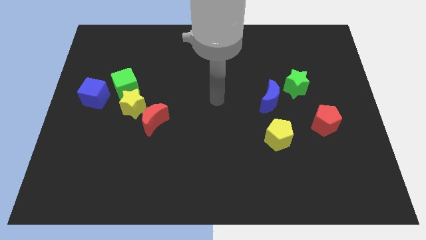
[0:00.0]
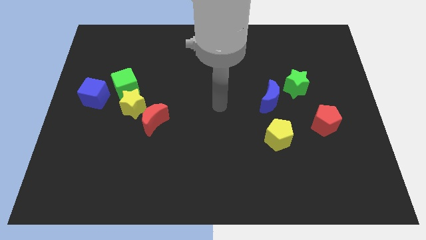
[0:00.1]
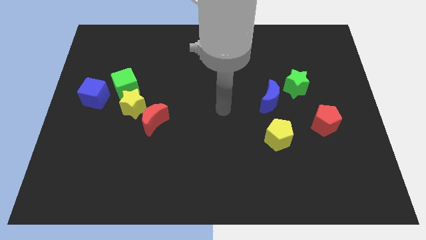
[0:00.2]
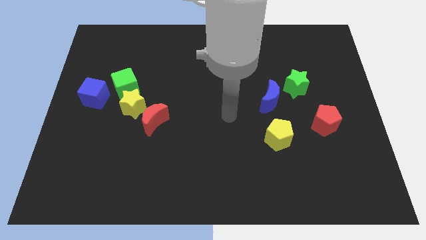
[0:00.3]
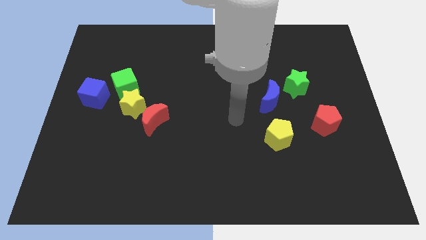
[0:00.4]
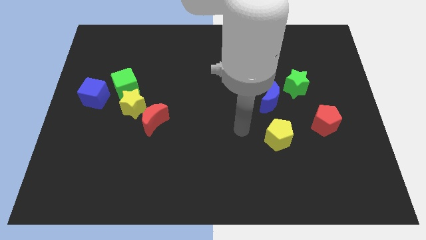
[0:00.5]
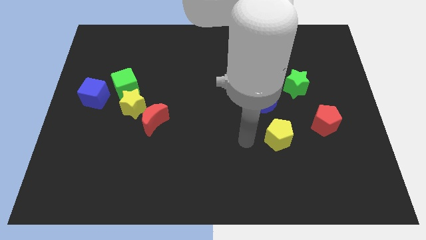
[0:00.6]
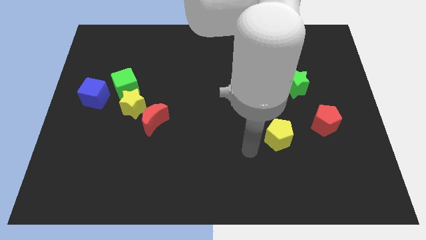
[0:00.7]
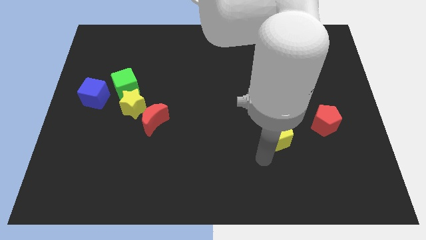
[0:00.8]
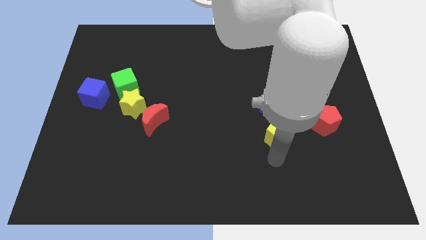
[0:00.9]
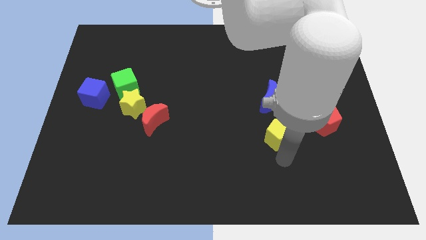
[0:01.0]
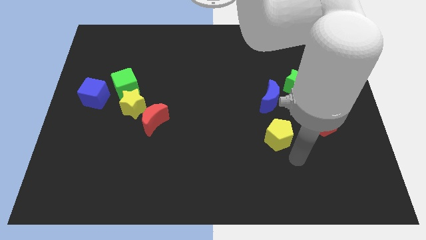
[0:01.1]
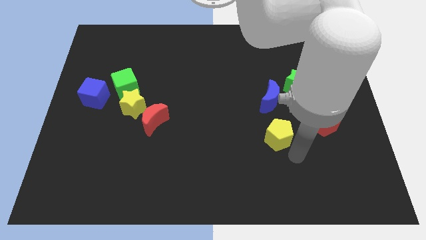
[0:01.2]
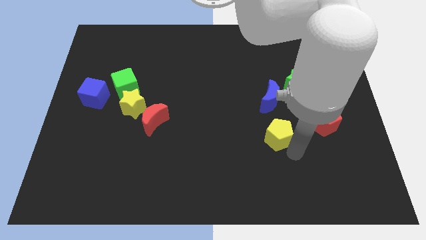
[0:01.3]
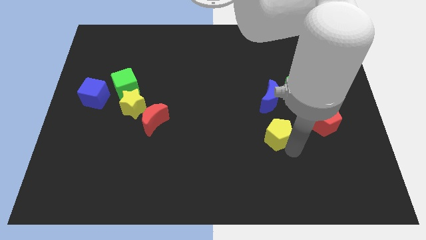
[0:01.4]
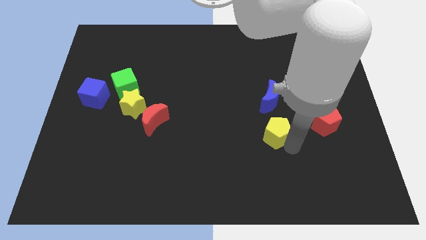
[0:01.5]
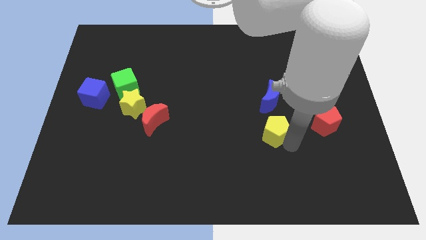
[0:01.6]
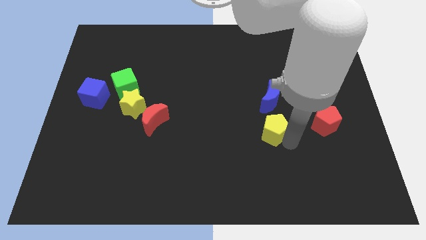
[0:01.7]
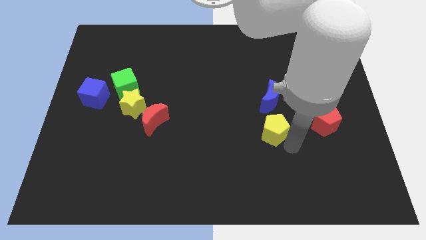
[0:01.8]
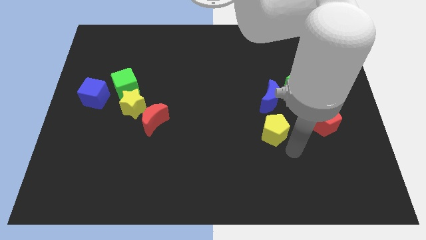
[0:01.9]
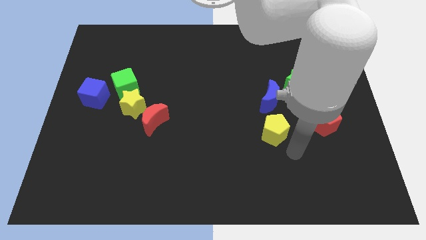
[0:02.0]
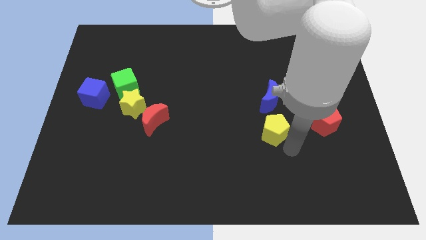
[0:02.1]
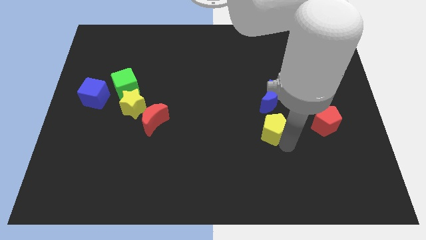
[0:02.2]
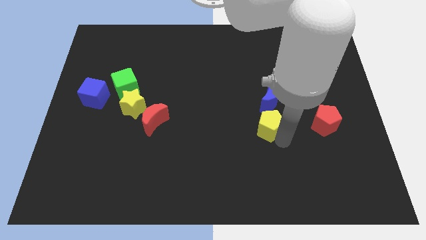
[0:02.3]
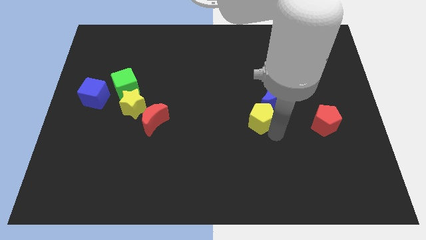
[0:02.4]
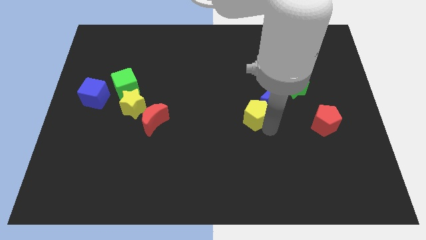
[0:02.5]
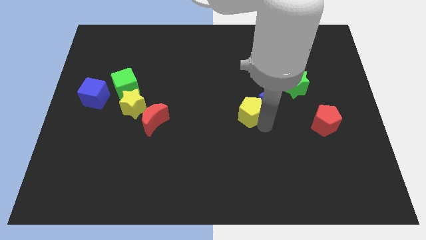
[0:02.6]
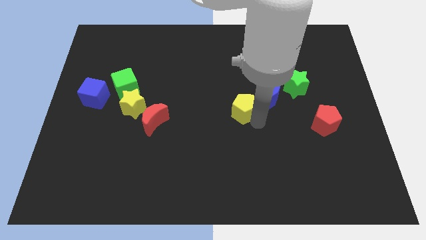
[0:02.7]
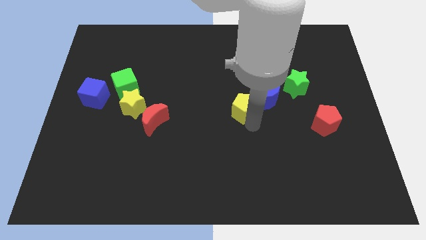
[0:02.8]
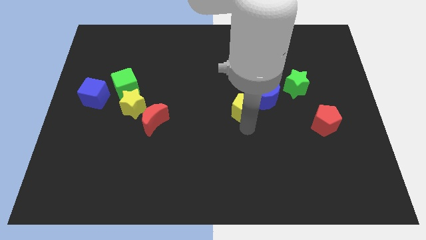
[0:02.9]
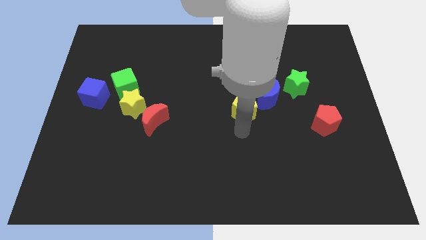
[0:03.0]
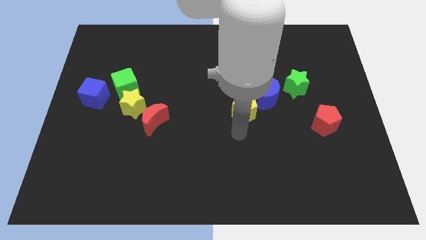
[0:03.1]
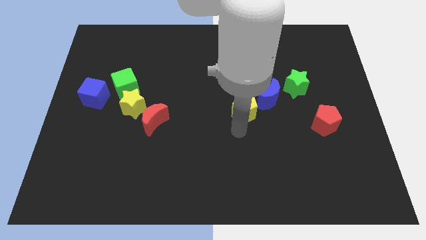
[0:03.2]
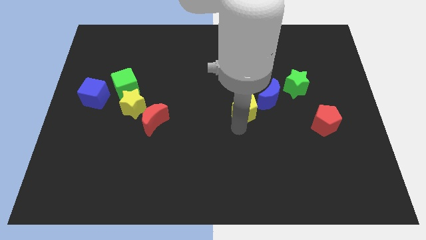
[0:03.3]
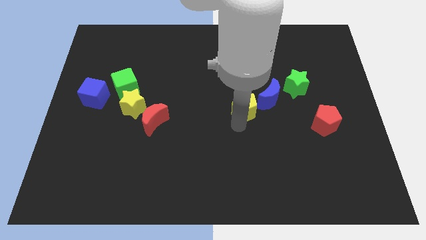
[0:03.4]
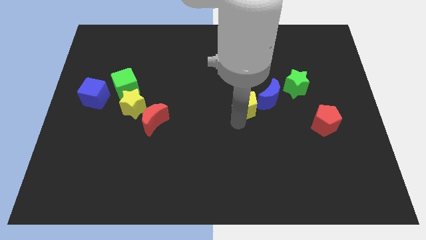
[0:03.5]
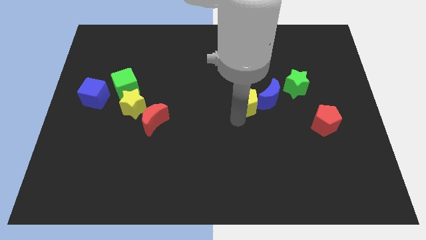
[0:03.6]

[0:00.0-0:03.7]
slightly slide the yellow pentagon upwards

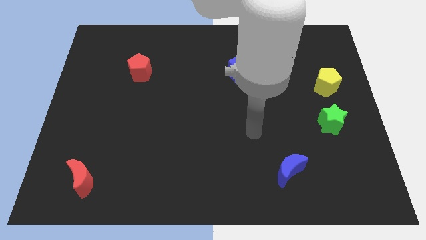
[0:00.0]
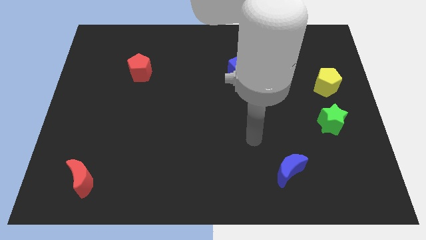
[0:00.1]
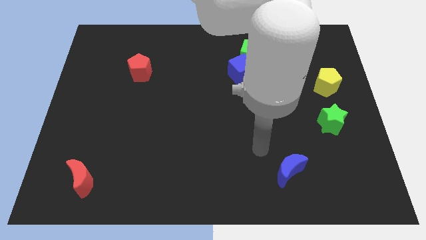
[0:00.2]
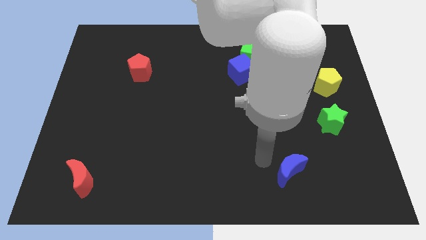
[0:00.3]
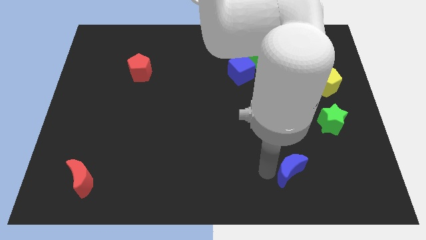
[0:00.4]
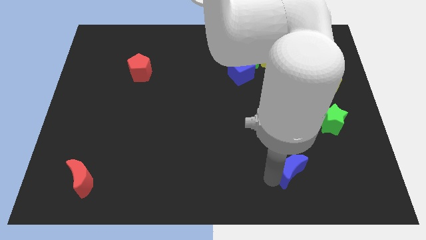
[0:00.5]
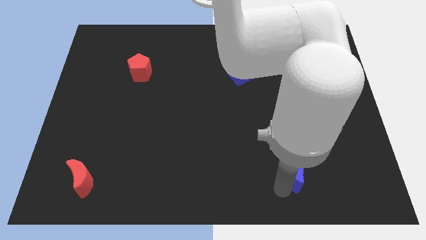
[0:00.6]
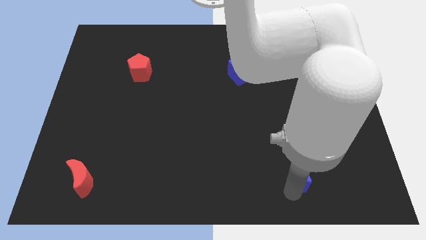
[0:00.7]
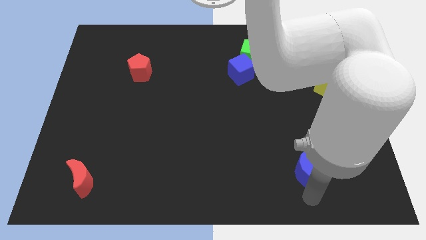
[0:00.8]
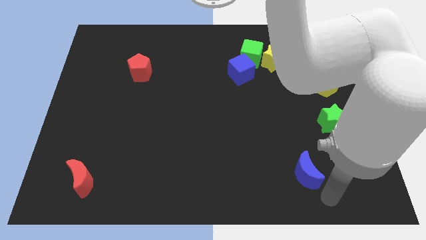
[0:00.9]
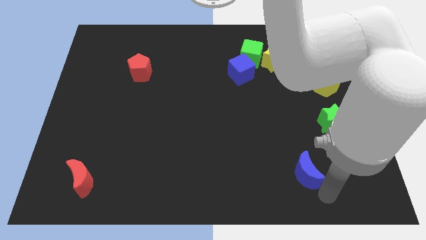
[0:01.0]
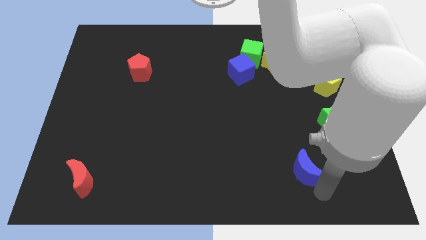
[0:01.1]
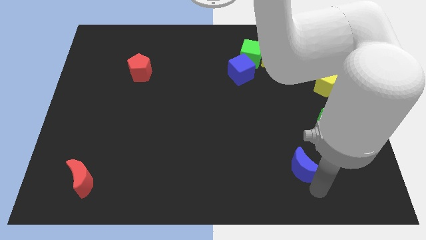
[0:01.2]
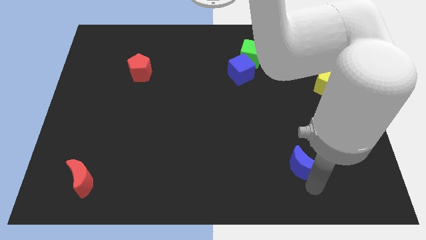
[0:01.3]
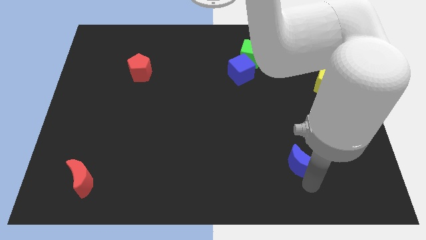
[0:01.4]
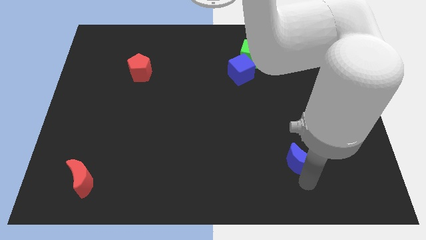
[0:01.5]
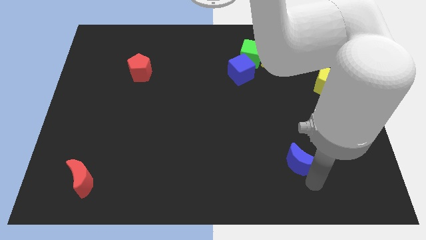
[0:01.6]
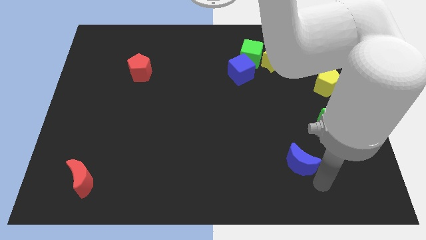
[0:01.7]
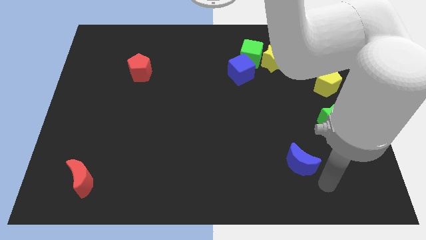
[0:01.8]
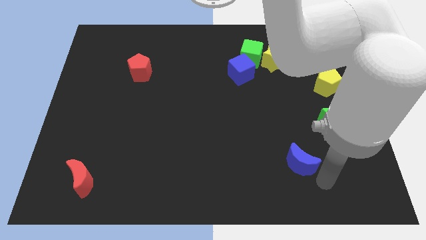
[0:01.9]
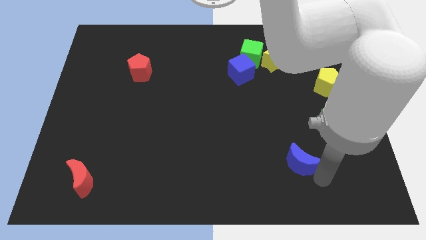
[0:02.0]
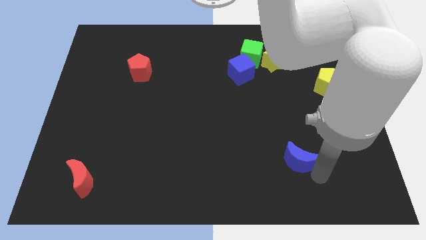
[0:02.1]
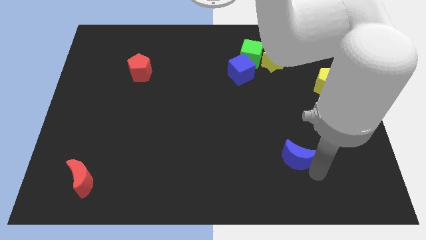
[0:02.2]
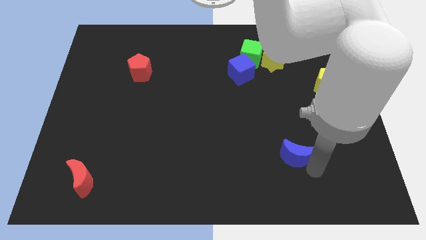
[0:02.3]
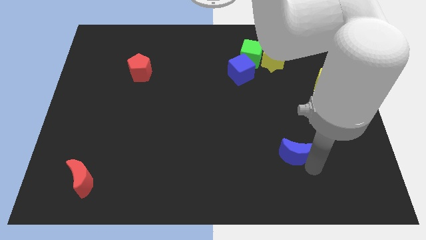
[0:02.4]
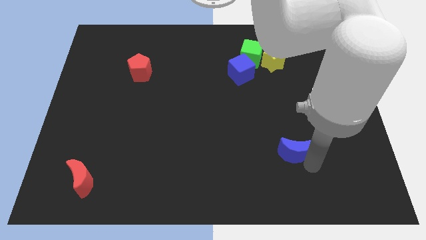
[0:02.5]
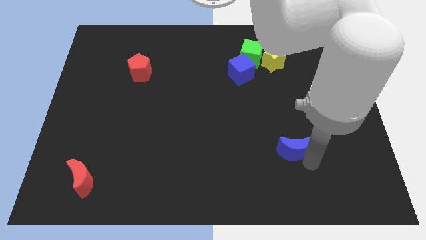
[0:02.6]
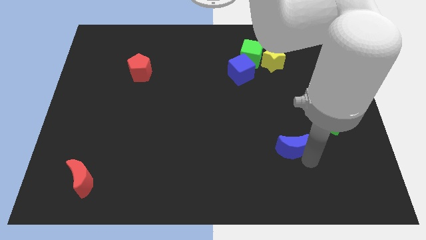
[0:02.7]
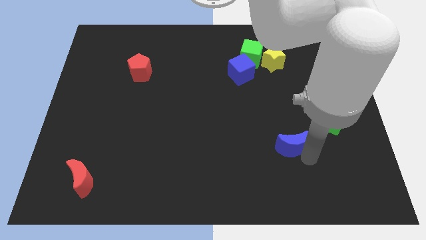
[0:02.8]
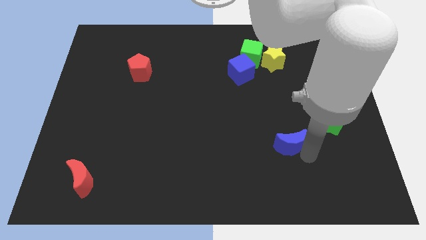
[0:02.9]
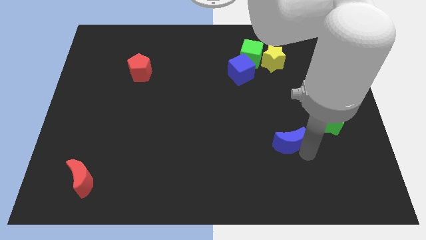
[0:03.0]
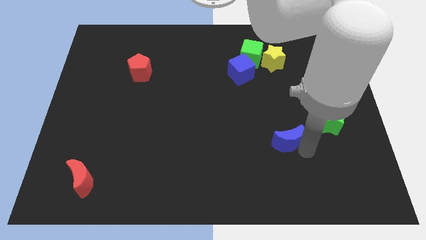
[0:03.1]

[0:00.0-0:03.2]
push the blue moon a bit up

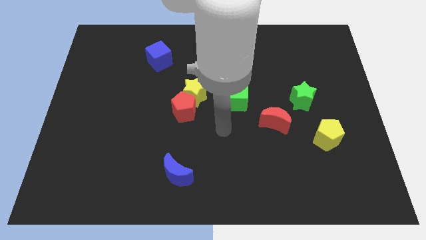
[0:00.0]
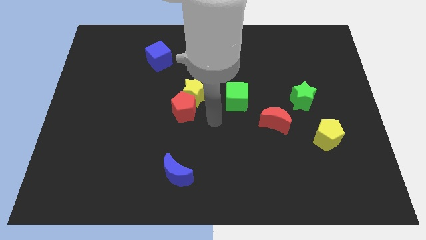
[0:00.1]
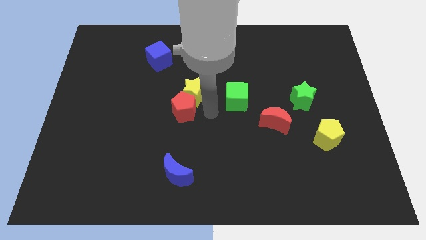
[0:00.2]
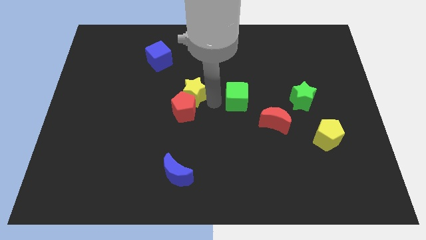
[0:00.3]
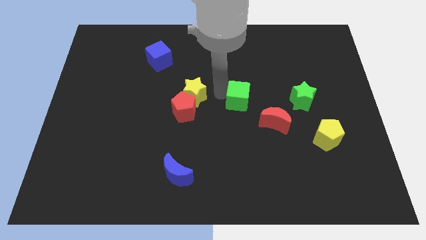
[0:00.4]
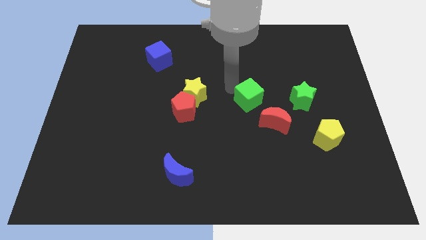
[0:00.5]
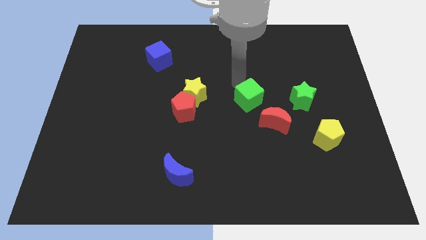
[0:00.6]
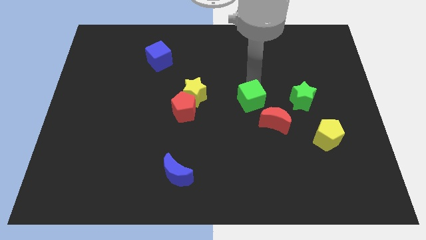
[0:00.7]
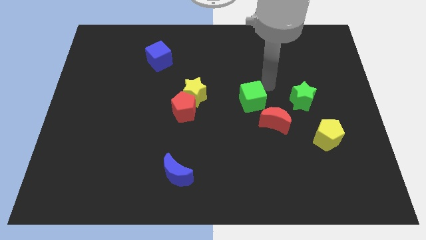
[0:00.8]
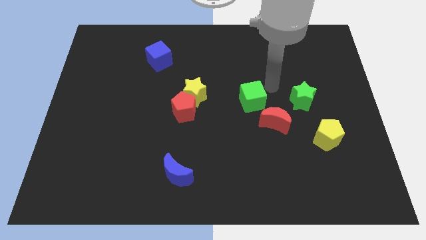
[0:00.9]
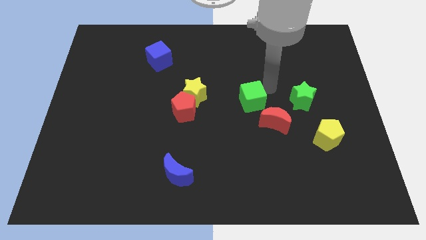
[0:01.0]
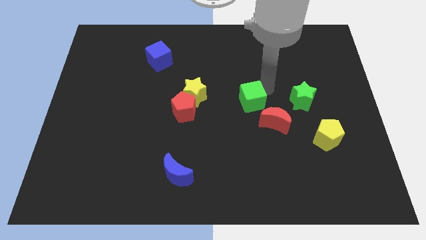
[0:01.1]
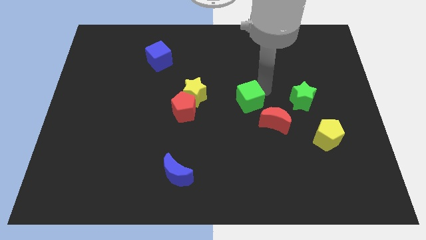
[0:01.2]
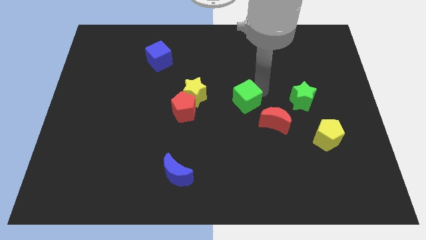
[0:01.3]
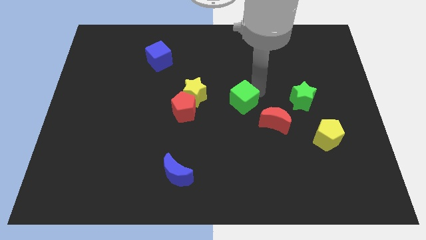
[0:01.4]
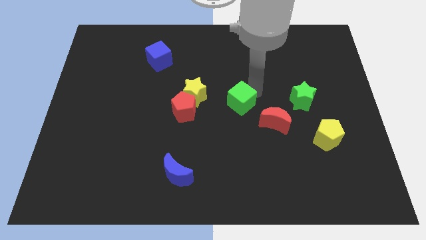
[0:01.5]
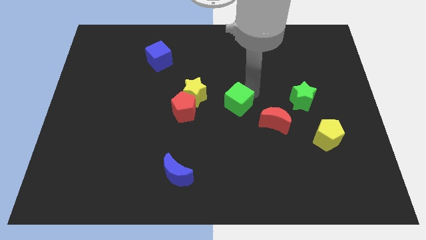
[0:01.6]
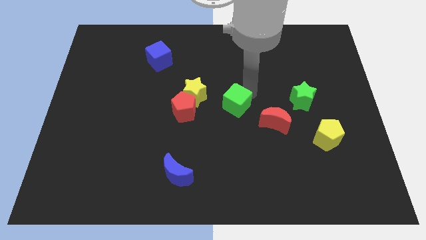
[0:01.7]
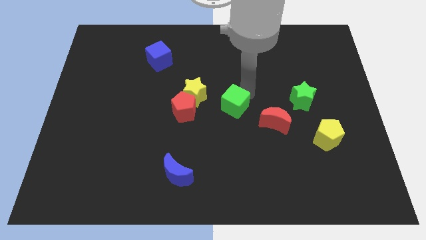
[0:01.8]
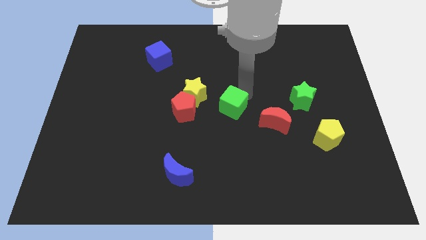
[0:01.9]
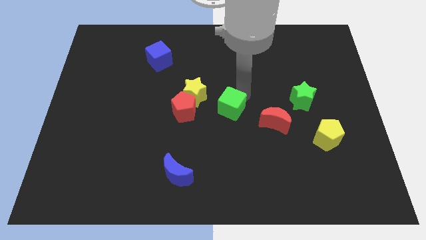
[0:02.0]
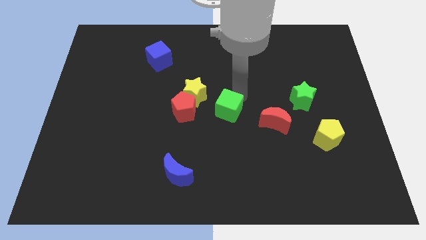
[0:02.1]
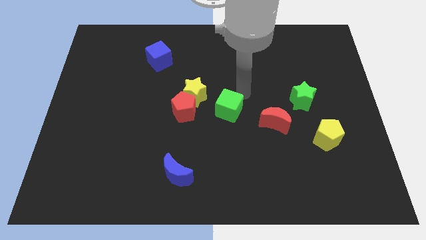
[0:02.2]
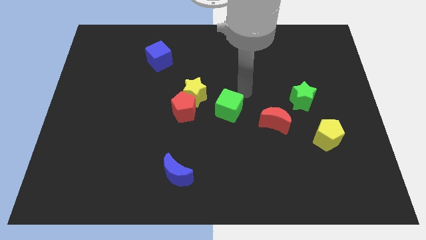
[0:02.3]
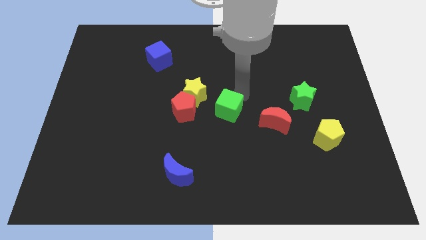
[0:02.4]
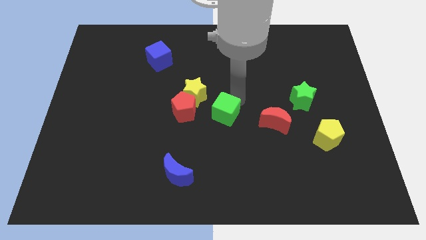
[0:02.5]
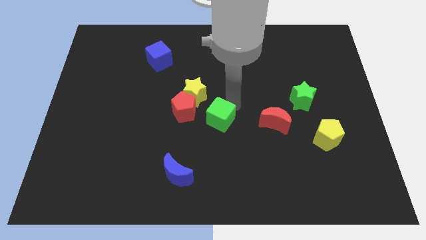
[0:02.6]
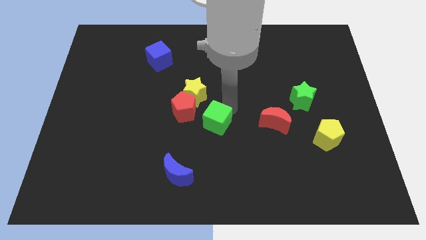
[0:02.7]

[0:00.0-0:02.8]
move the green cube somewhat downwards and left diagonally
